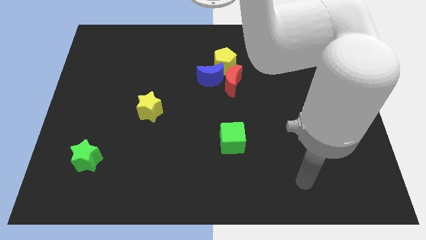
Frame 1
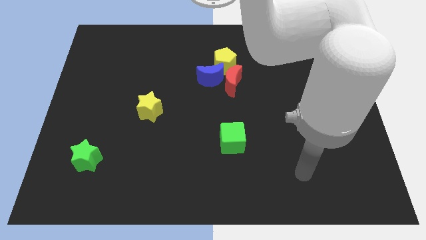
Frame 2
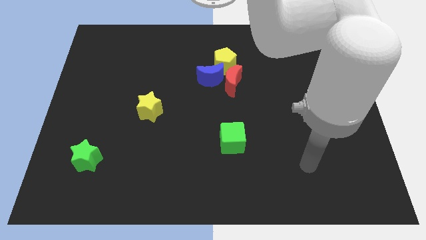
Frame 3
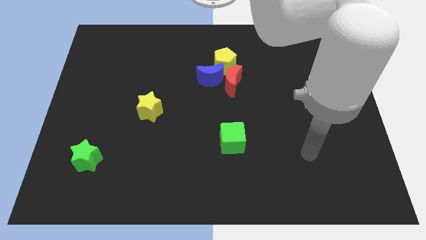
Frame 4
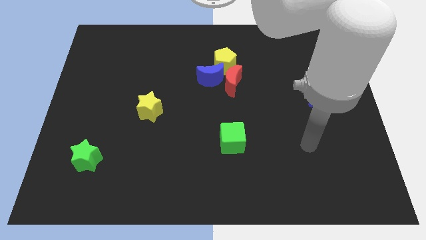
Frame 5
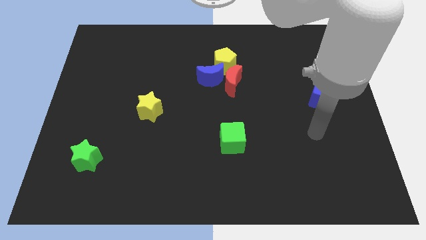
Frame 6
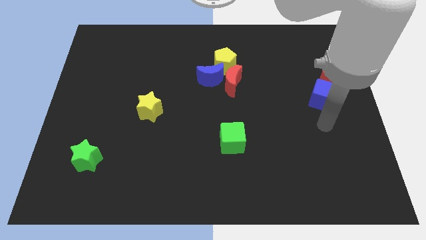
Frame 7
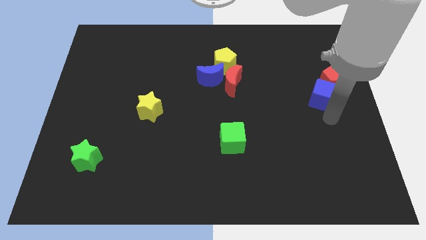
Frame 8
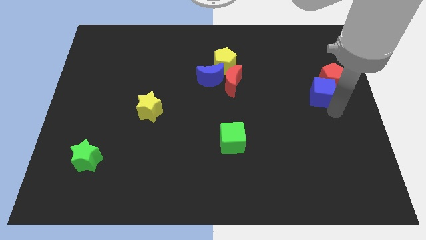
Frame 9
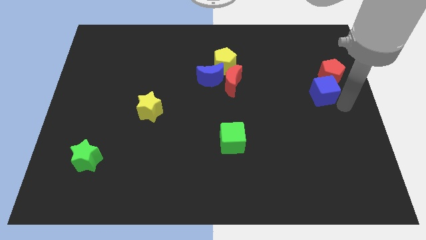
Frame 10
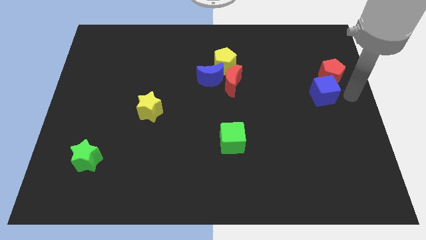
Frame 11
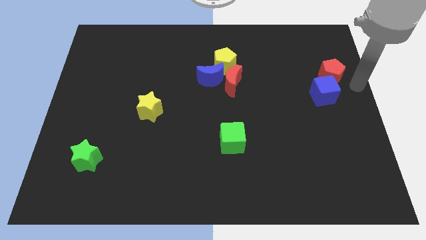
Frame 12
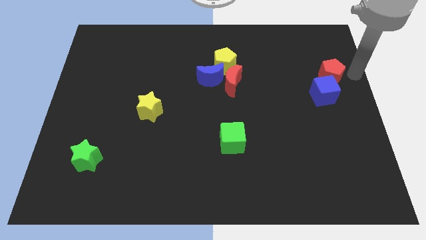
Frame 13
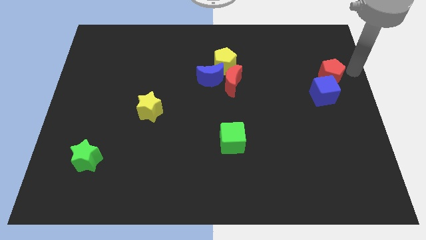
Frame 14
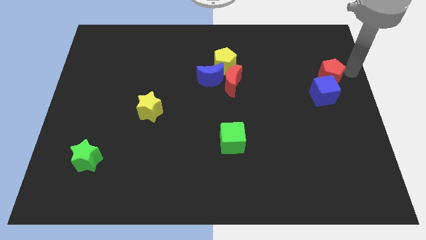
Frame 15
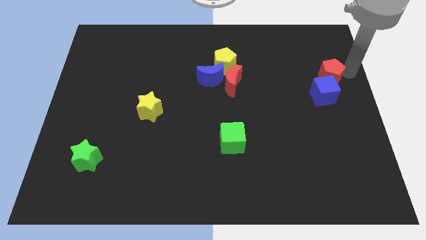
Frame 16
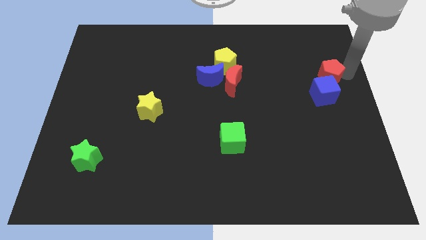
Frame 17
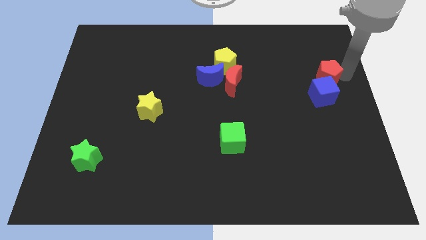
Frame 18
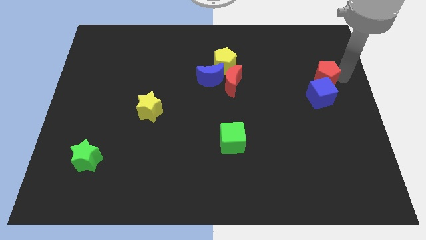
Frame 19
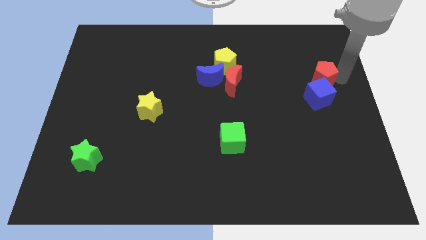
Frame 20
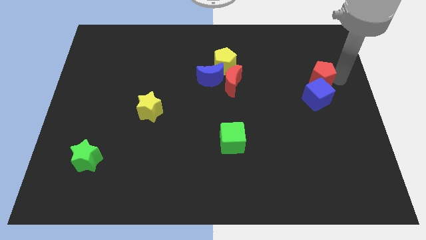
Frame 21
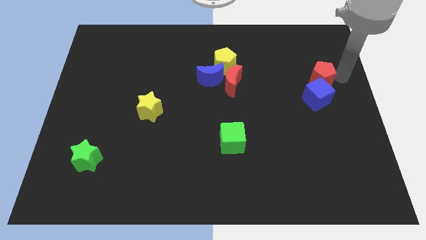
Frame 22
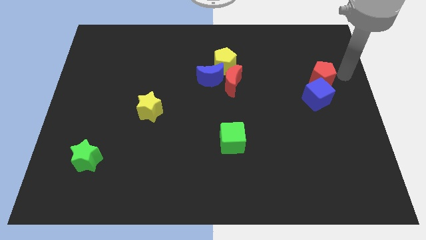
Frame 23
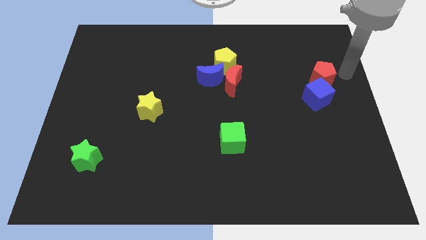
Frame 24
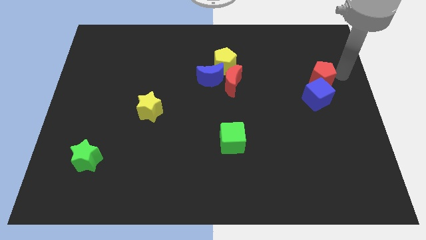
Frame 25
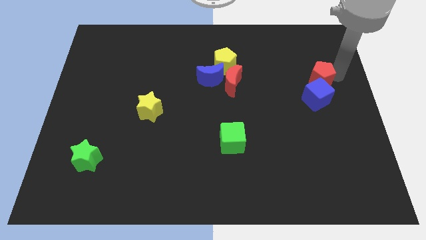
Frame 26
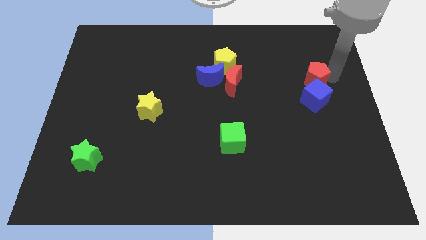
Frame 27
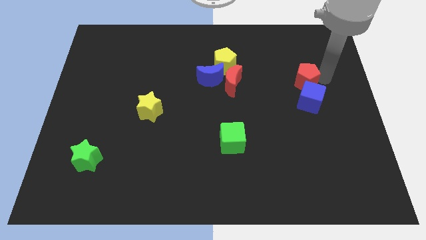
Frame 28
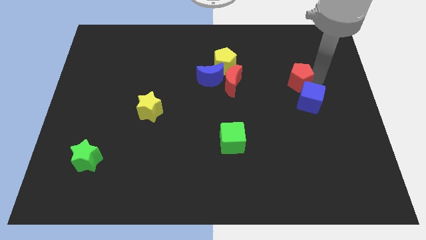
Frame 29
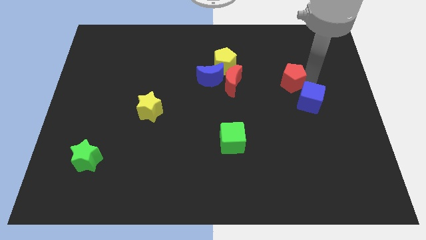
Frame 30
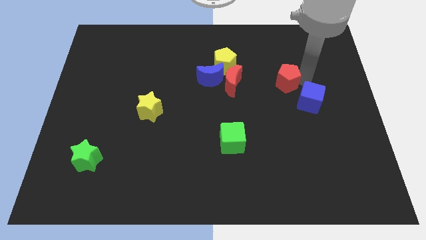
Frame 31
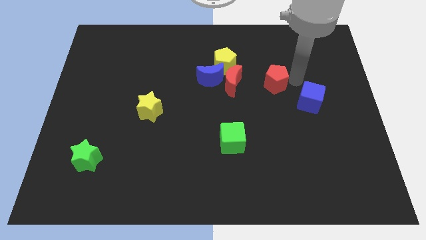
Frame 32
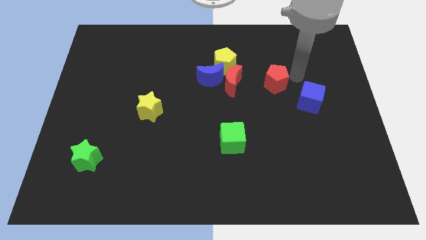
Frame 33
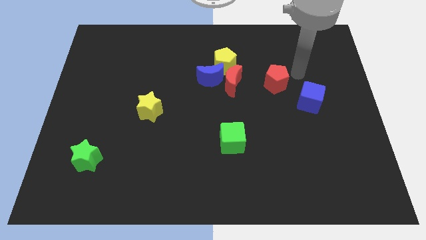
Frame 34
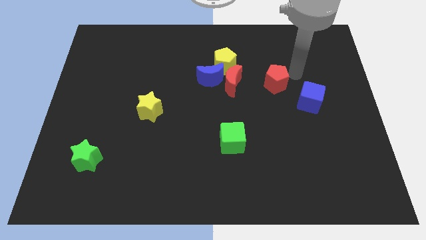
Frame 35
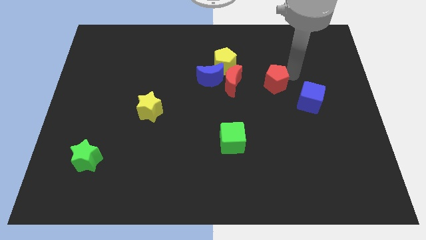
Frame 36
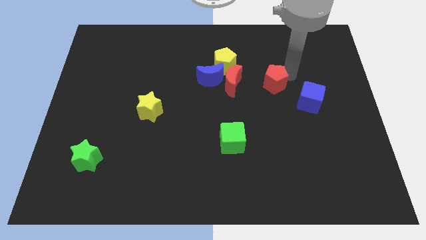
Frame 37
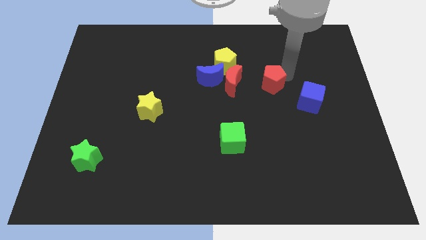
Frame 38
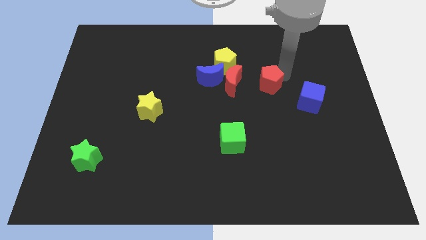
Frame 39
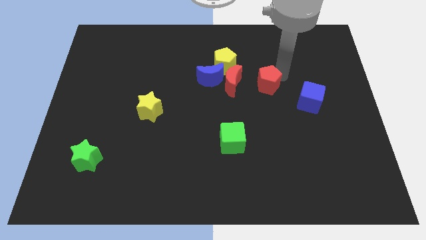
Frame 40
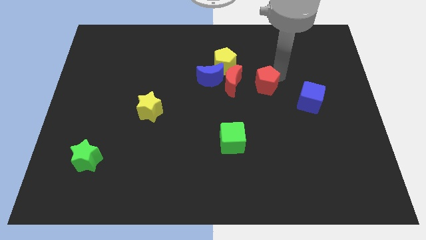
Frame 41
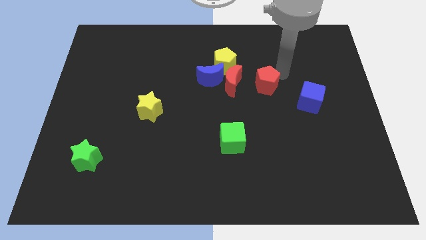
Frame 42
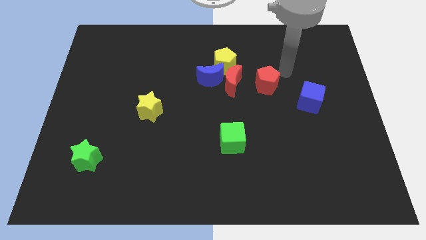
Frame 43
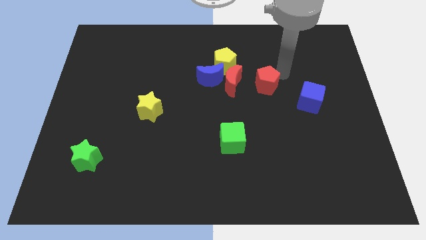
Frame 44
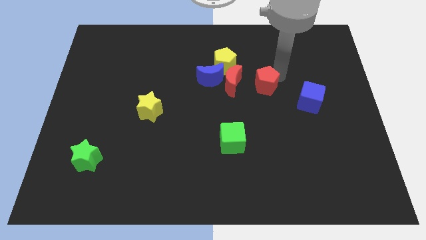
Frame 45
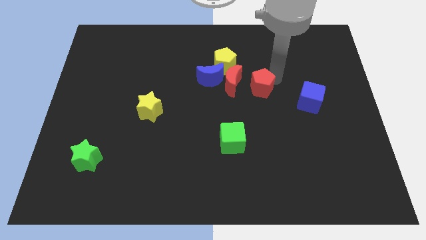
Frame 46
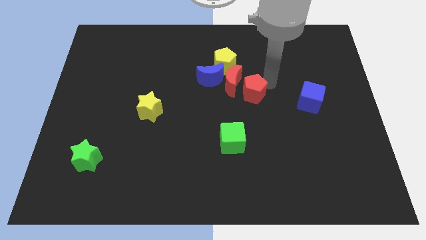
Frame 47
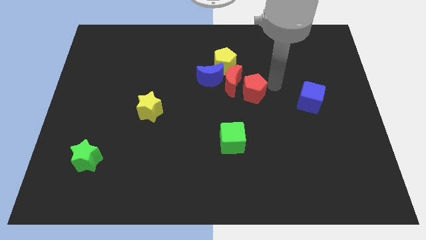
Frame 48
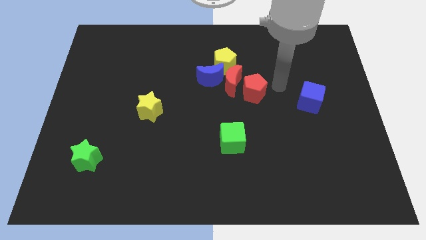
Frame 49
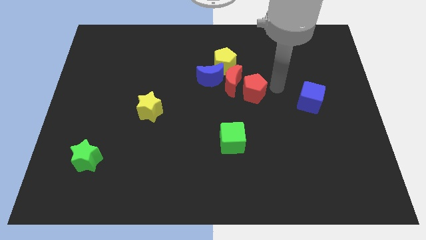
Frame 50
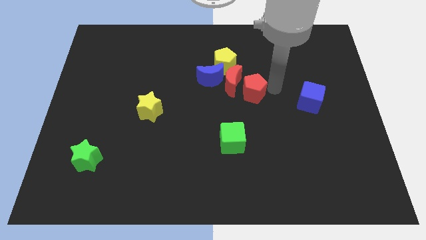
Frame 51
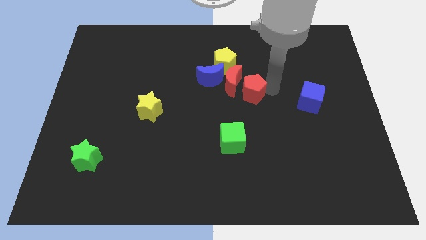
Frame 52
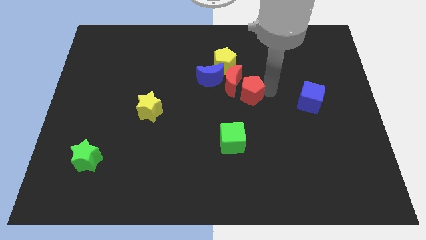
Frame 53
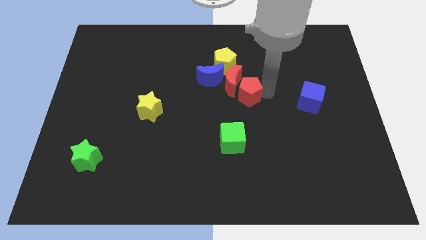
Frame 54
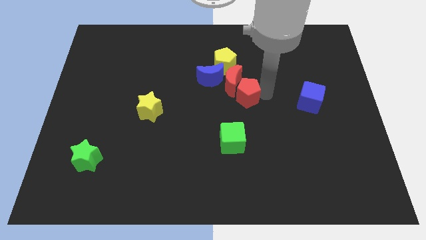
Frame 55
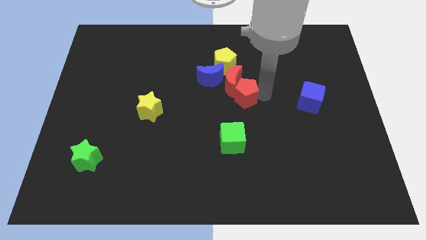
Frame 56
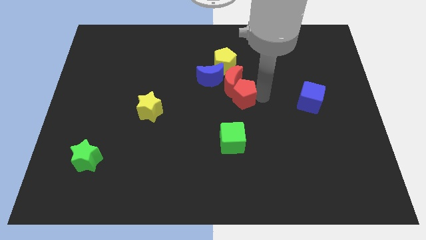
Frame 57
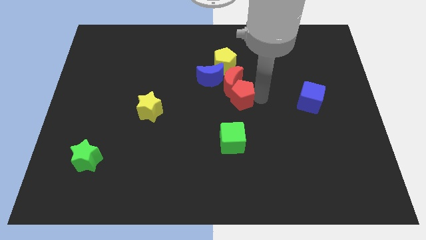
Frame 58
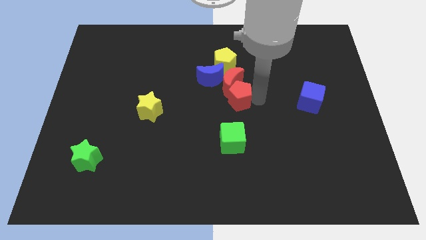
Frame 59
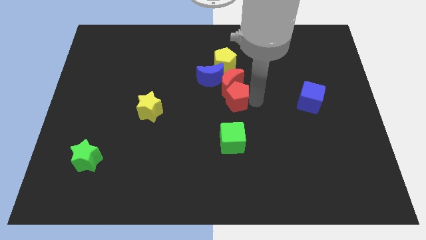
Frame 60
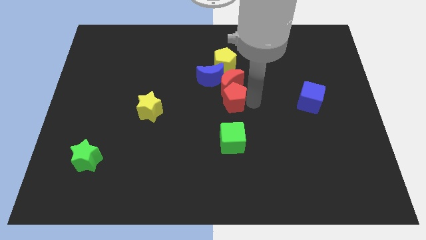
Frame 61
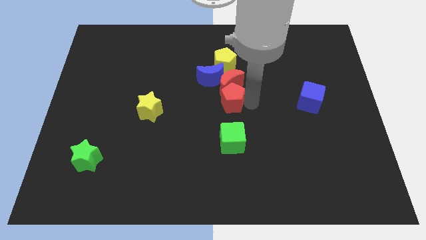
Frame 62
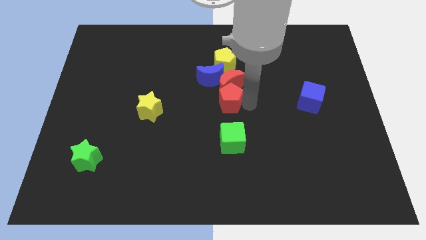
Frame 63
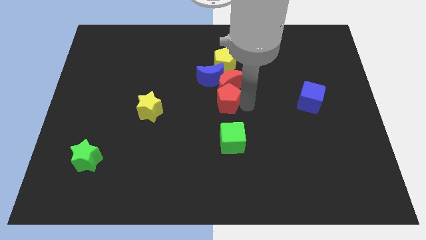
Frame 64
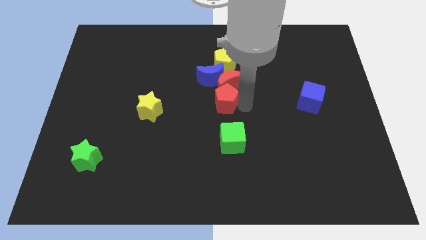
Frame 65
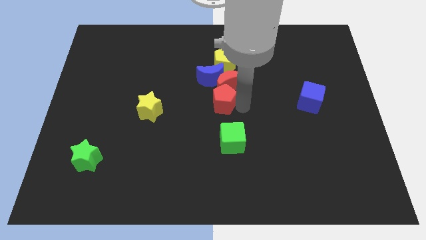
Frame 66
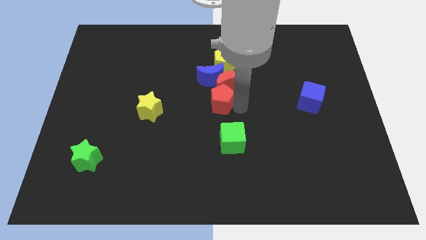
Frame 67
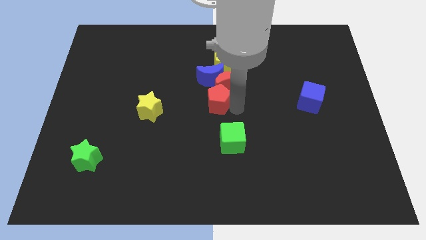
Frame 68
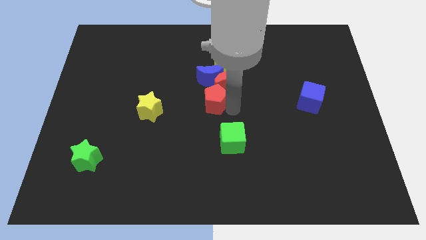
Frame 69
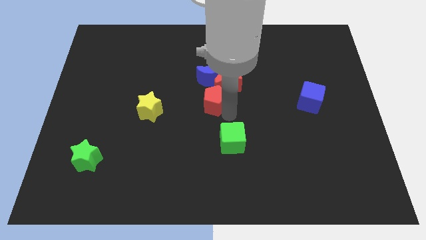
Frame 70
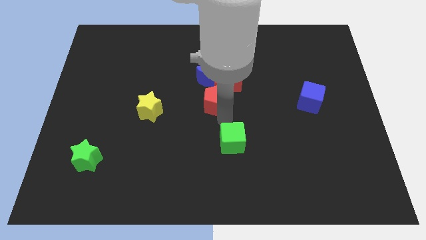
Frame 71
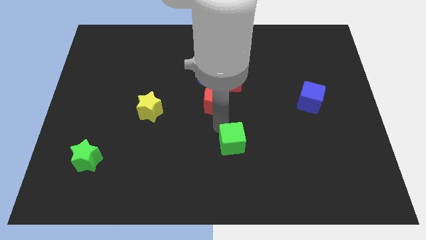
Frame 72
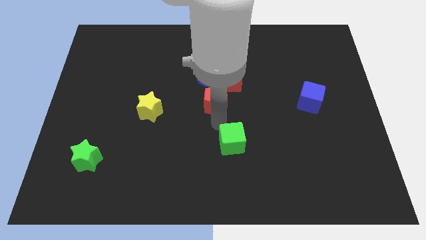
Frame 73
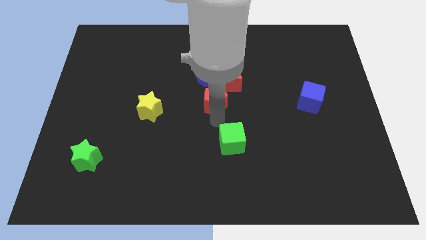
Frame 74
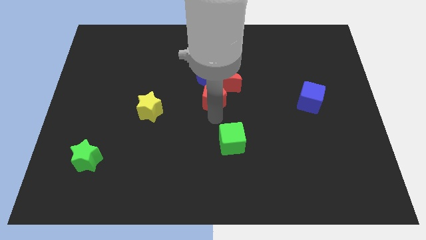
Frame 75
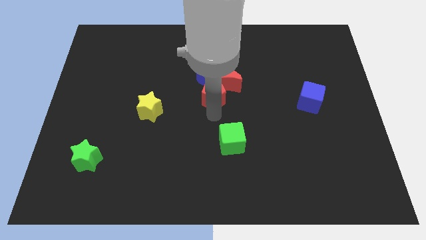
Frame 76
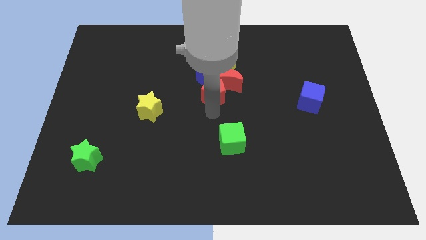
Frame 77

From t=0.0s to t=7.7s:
push the red pentagon to the blue moon
